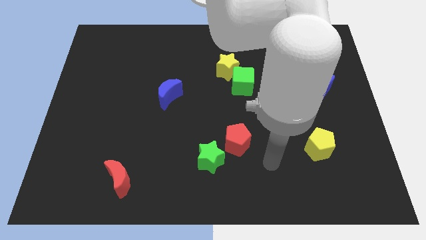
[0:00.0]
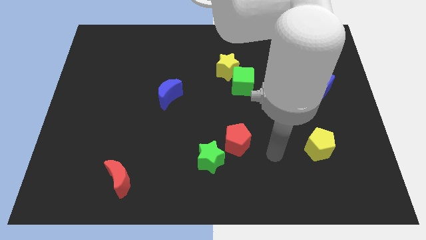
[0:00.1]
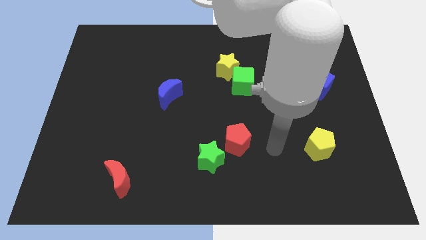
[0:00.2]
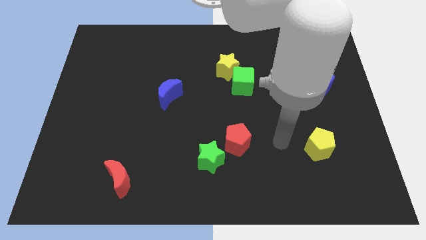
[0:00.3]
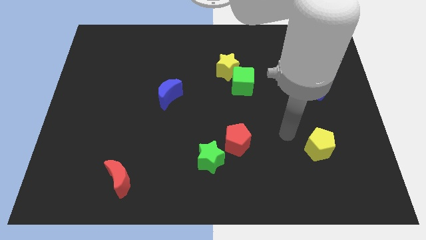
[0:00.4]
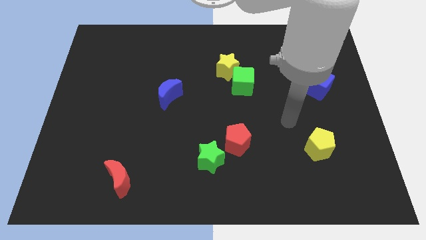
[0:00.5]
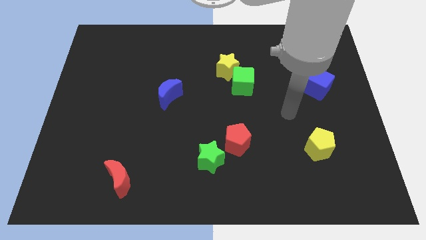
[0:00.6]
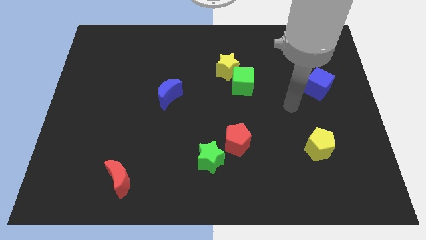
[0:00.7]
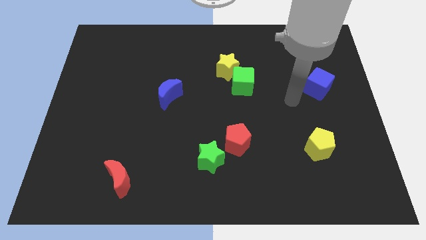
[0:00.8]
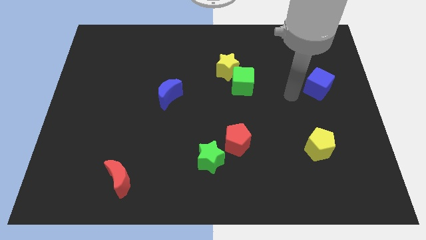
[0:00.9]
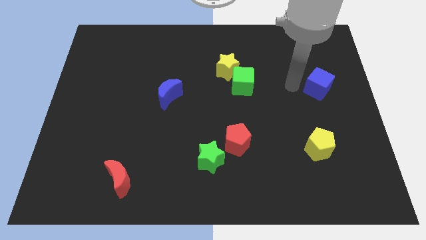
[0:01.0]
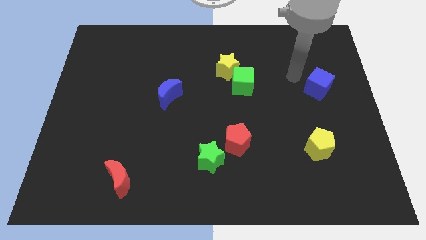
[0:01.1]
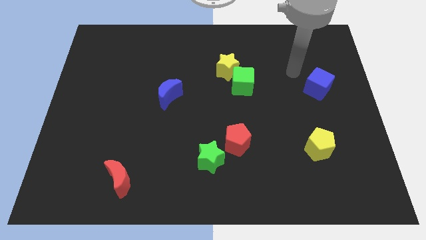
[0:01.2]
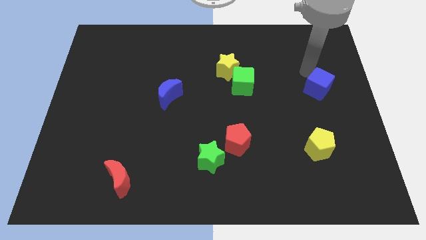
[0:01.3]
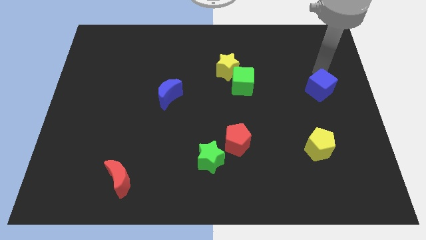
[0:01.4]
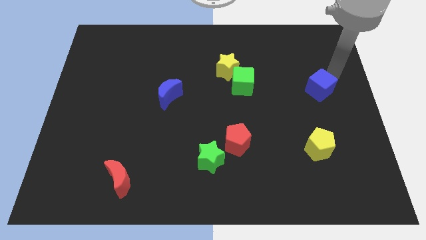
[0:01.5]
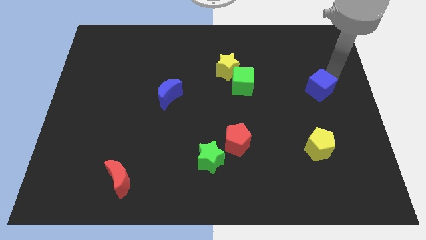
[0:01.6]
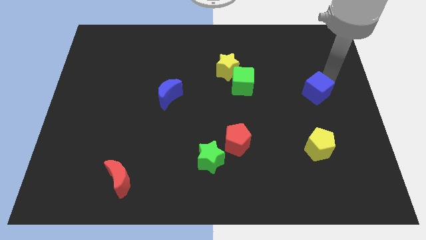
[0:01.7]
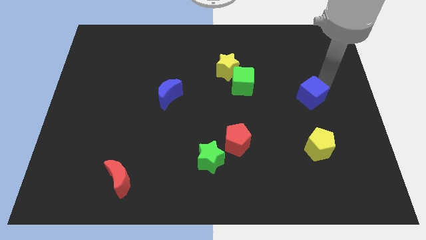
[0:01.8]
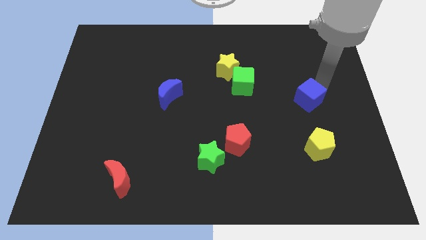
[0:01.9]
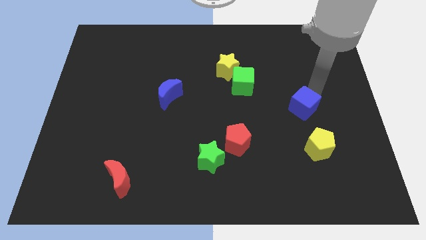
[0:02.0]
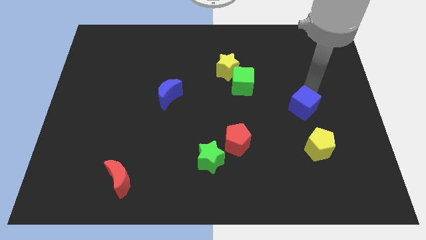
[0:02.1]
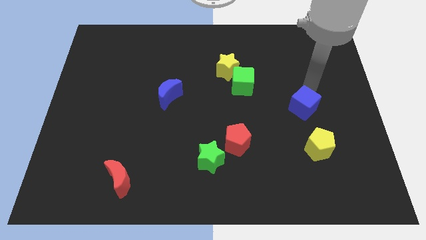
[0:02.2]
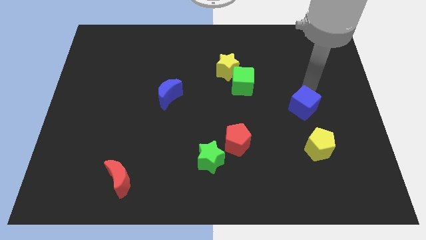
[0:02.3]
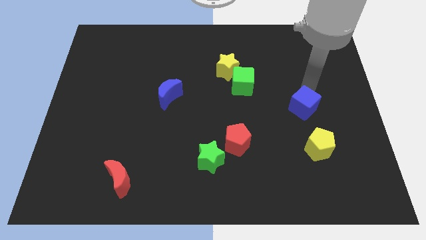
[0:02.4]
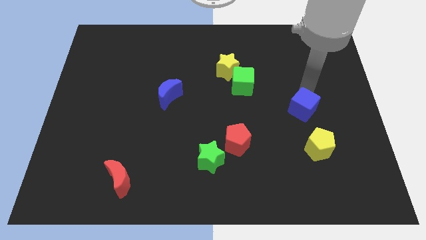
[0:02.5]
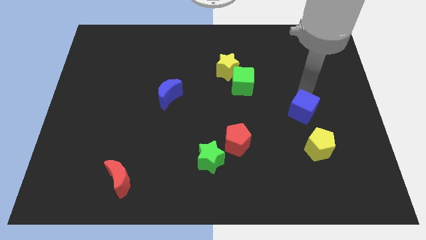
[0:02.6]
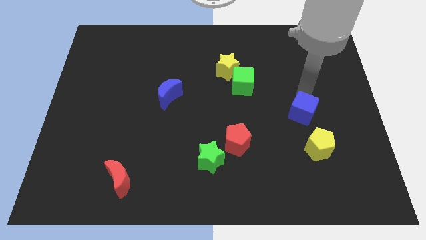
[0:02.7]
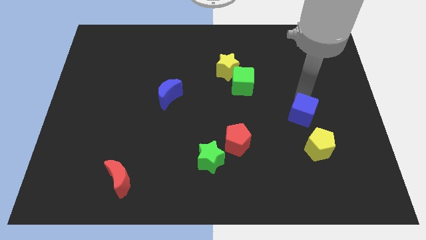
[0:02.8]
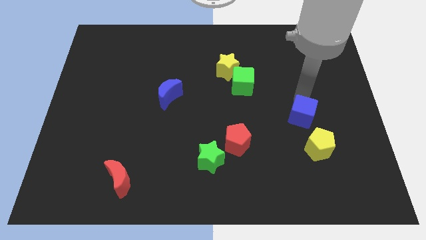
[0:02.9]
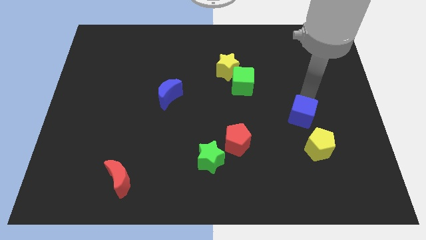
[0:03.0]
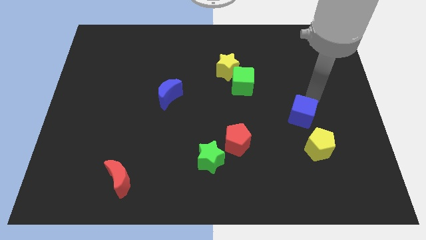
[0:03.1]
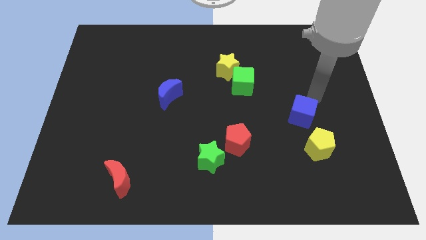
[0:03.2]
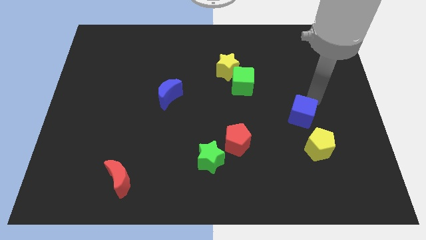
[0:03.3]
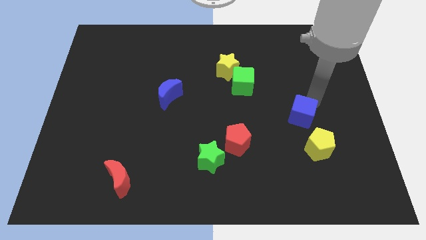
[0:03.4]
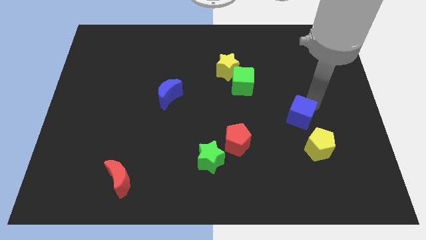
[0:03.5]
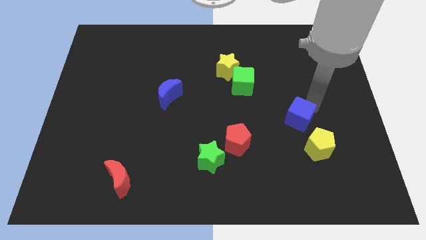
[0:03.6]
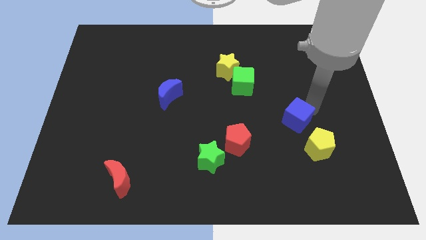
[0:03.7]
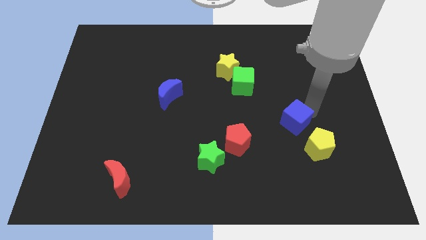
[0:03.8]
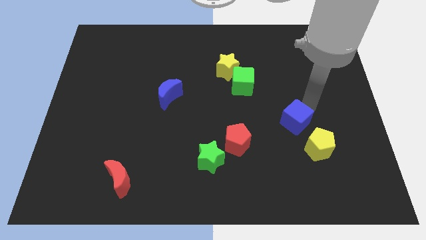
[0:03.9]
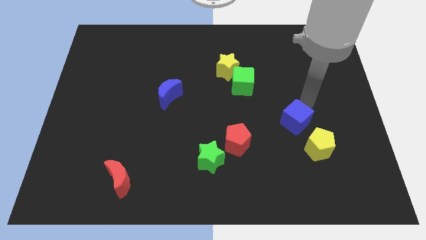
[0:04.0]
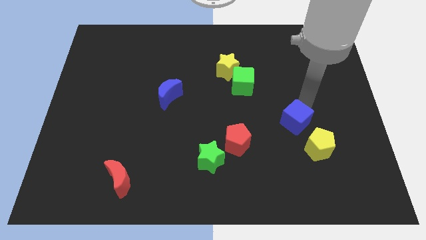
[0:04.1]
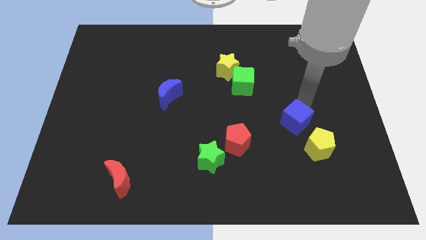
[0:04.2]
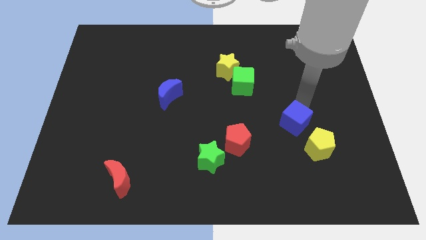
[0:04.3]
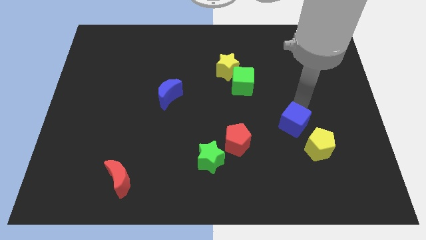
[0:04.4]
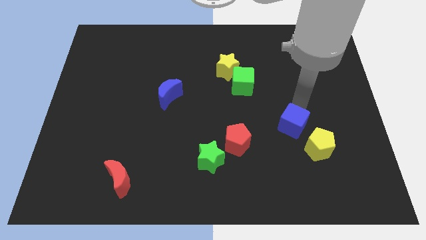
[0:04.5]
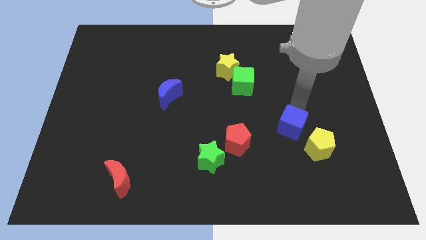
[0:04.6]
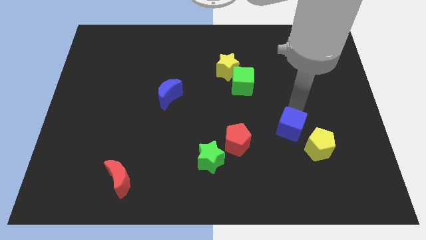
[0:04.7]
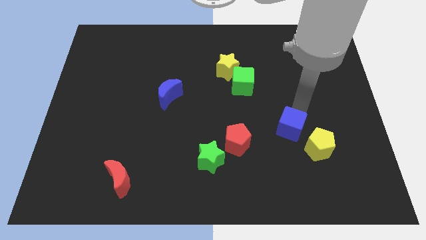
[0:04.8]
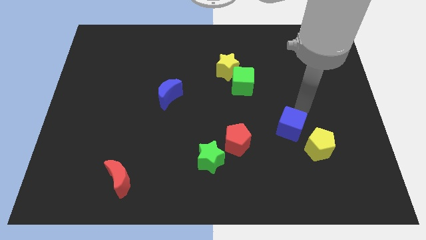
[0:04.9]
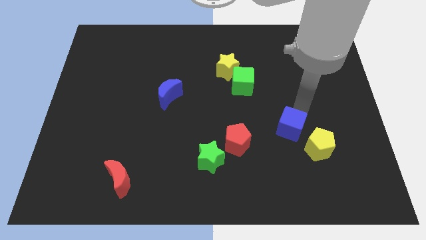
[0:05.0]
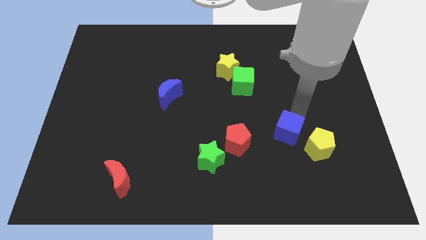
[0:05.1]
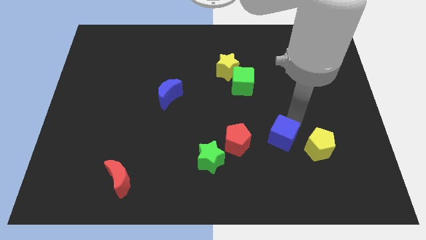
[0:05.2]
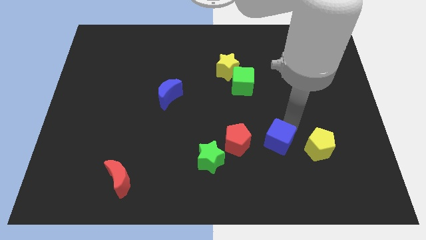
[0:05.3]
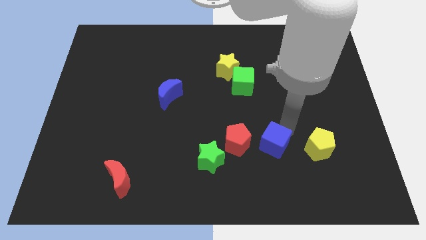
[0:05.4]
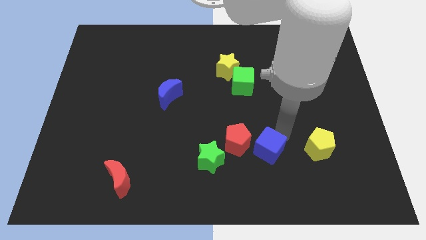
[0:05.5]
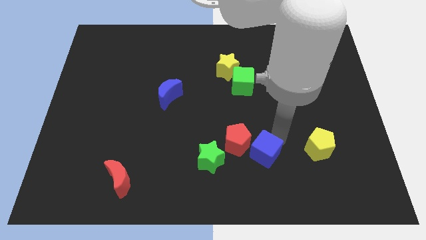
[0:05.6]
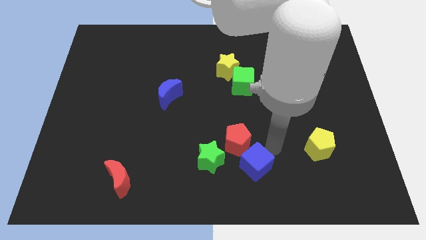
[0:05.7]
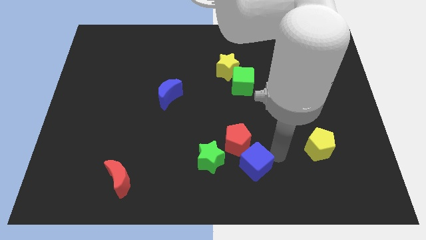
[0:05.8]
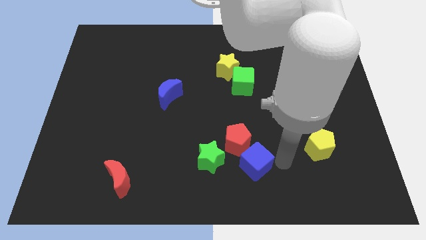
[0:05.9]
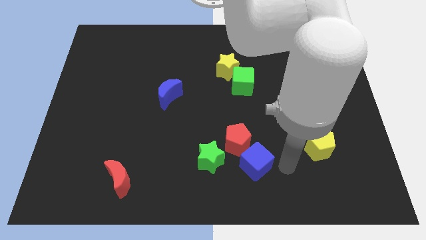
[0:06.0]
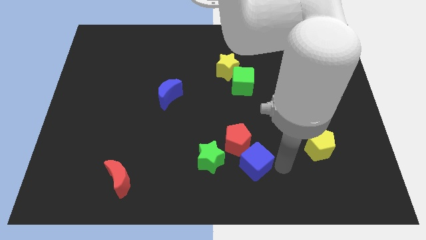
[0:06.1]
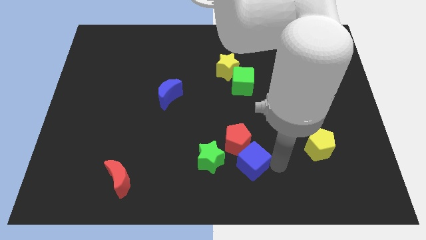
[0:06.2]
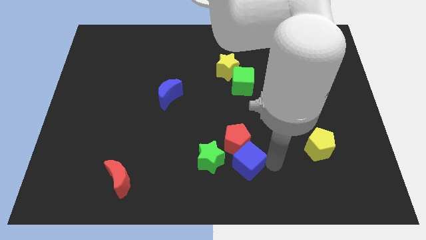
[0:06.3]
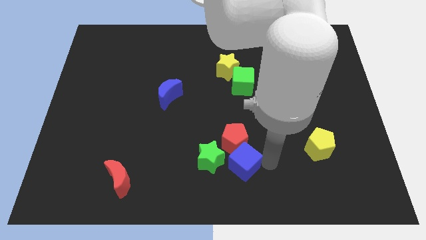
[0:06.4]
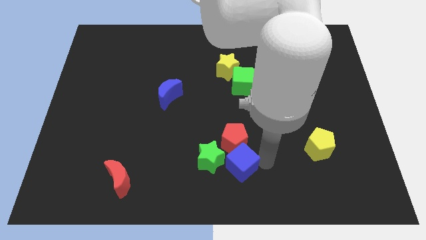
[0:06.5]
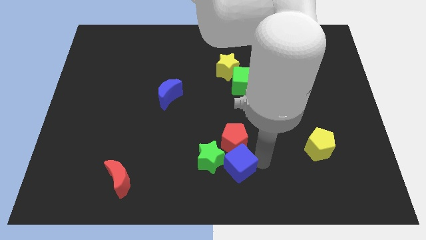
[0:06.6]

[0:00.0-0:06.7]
put the blue cube towards the green star

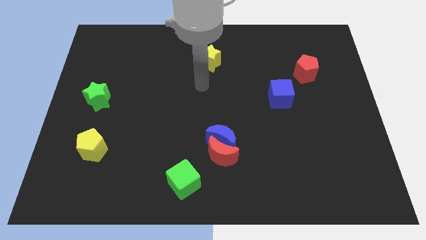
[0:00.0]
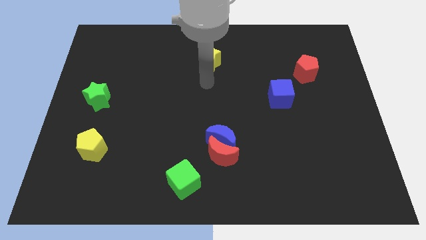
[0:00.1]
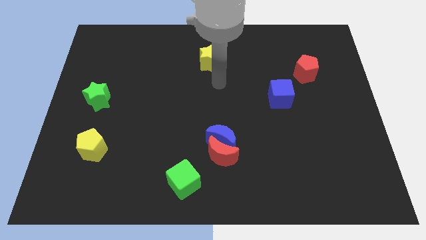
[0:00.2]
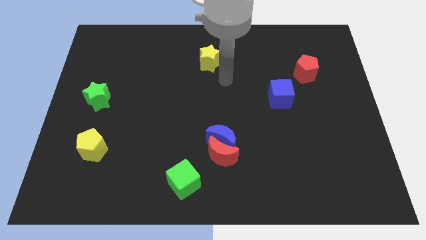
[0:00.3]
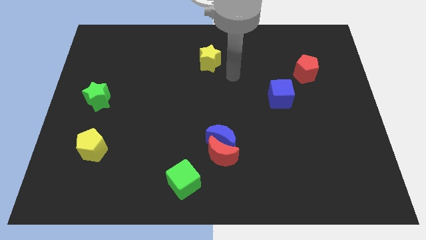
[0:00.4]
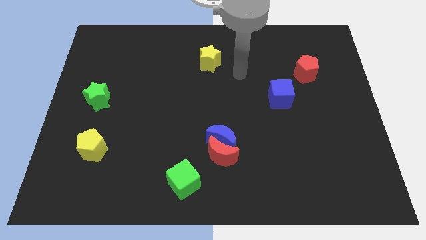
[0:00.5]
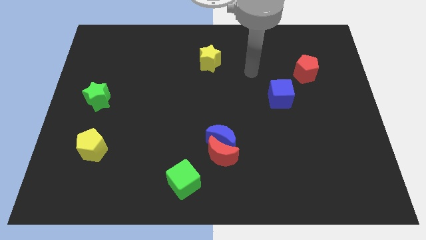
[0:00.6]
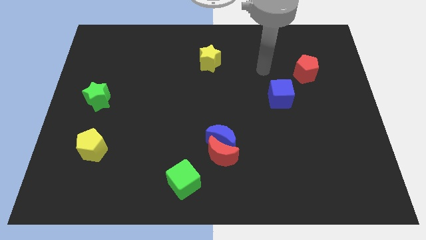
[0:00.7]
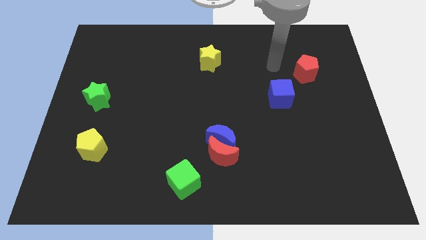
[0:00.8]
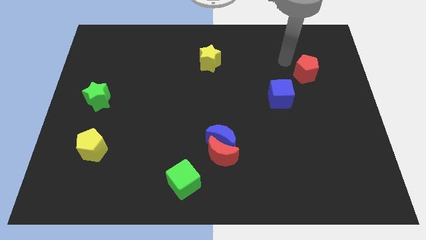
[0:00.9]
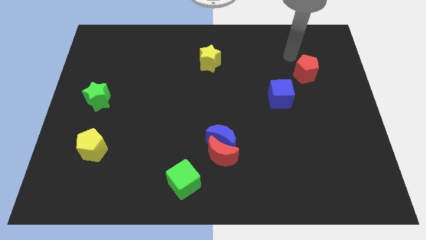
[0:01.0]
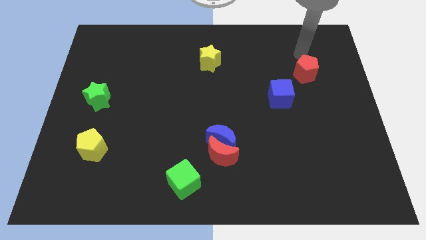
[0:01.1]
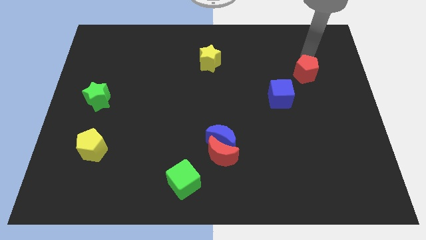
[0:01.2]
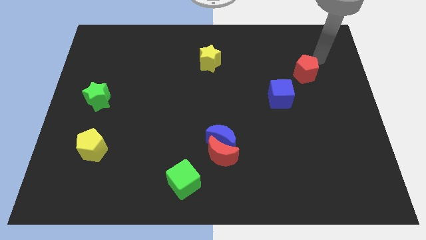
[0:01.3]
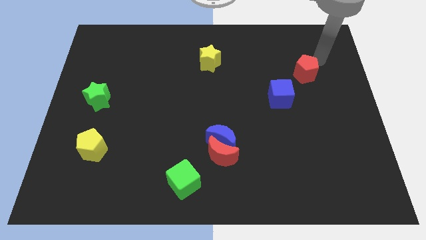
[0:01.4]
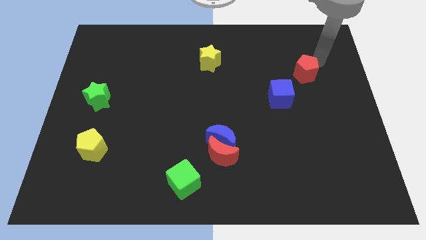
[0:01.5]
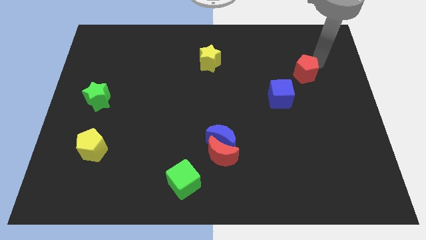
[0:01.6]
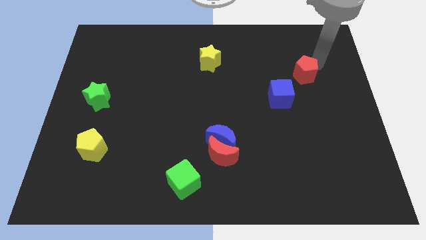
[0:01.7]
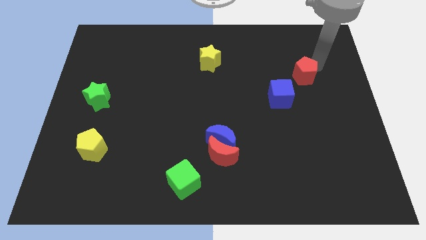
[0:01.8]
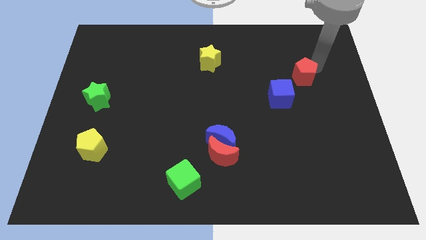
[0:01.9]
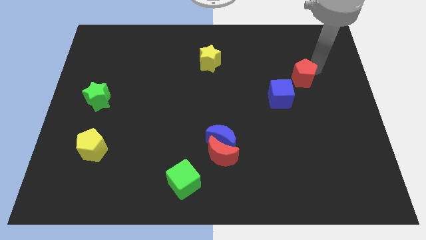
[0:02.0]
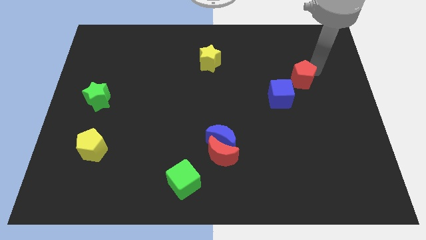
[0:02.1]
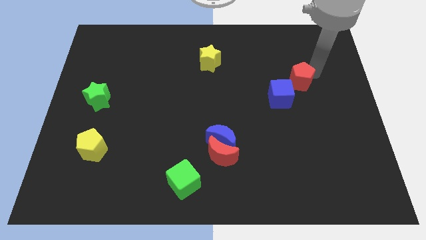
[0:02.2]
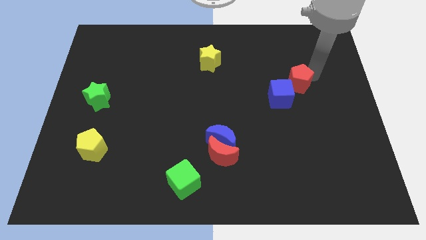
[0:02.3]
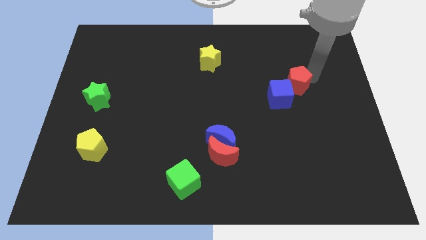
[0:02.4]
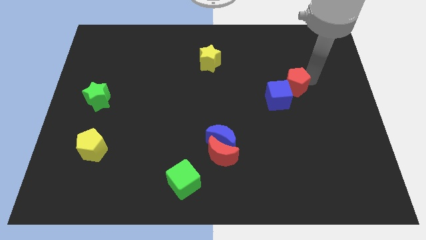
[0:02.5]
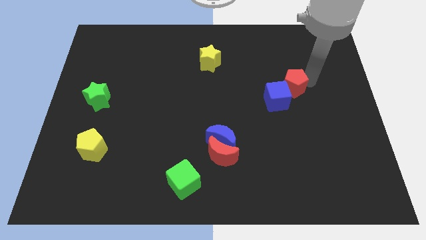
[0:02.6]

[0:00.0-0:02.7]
push the red pentagon next to the blue cube
